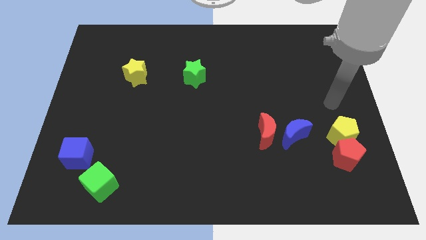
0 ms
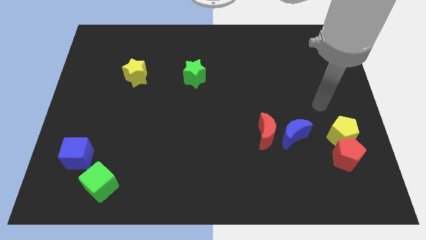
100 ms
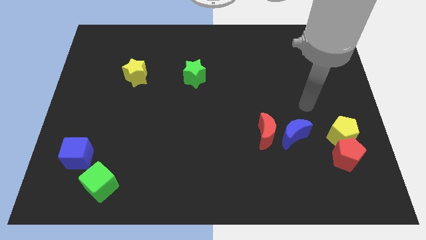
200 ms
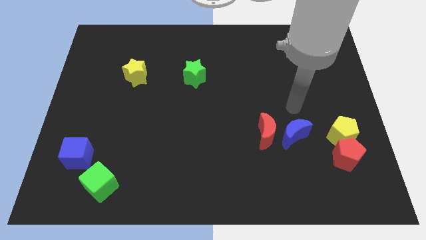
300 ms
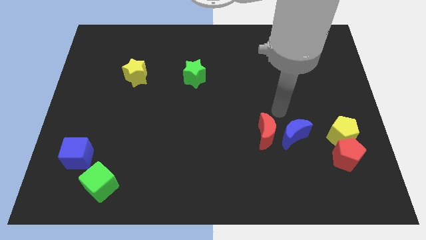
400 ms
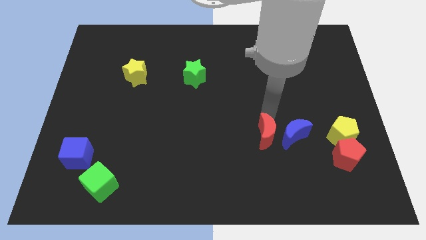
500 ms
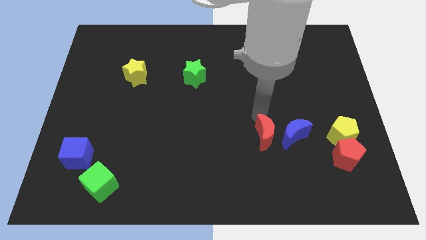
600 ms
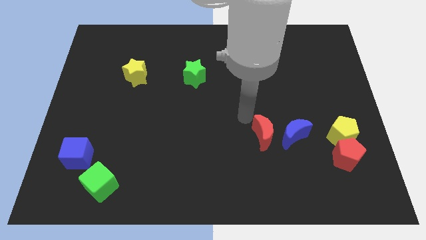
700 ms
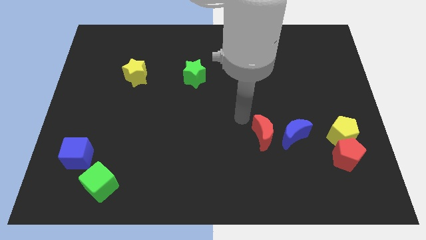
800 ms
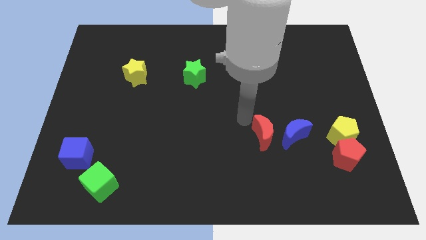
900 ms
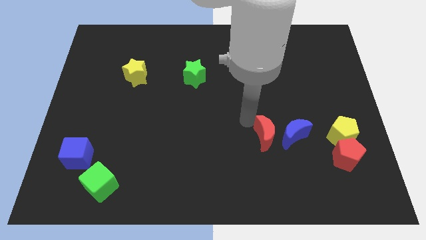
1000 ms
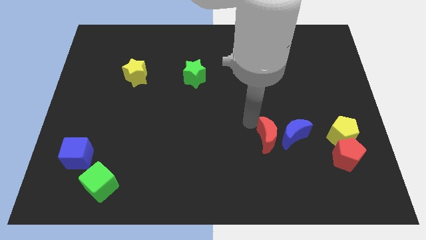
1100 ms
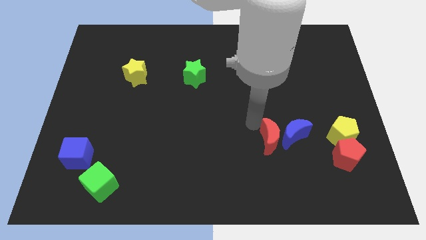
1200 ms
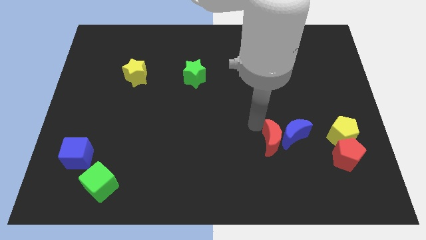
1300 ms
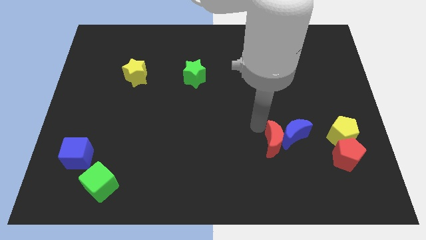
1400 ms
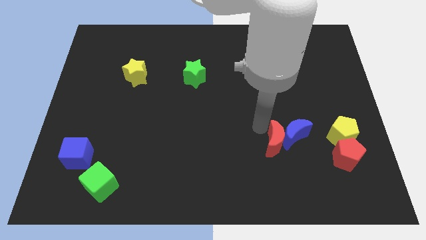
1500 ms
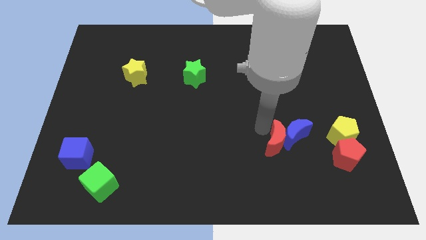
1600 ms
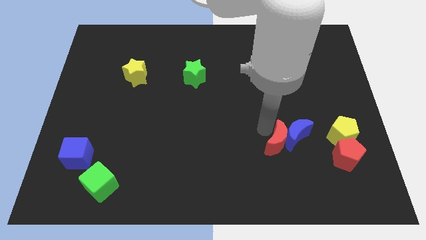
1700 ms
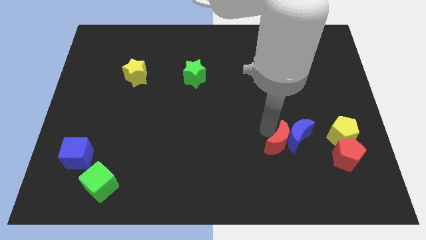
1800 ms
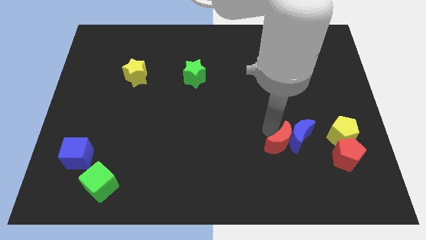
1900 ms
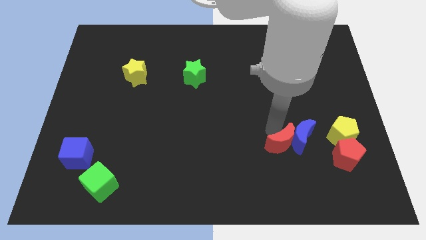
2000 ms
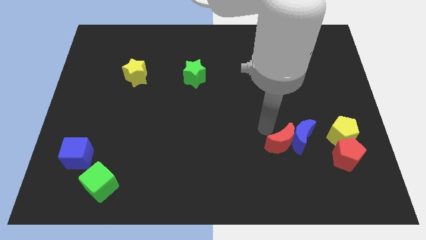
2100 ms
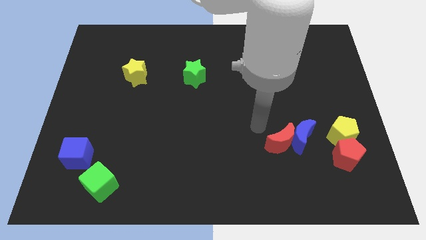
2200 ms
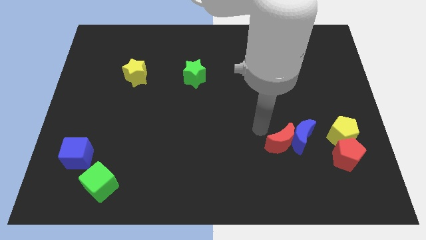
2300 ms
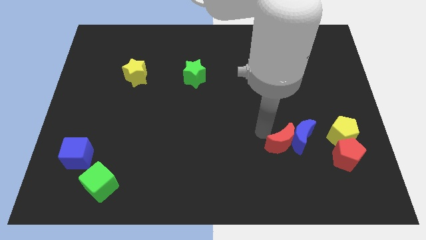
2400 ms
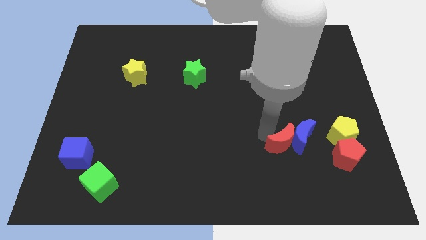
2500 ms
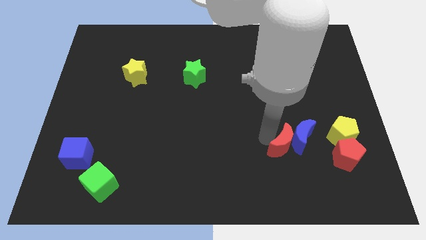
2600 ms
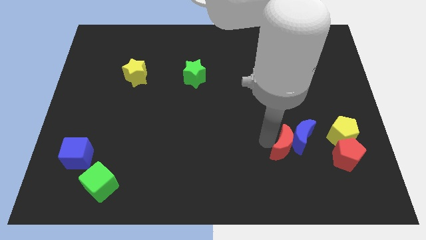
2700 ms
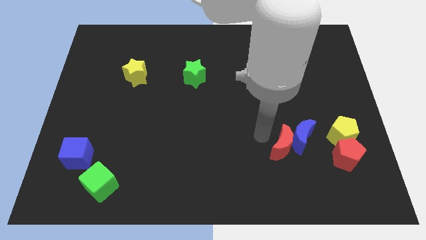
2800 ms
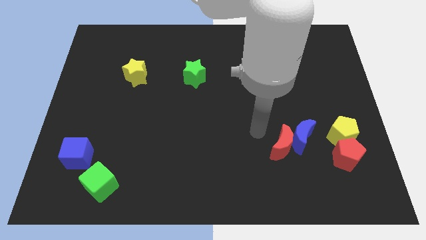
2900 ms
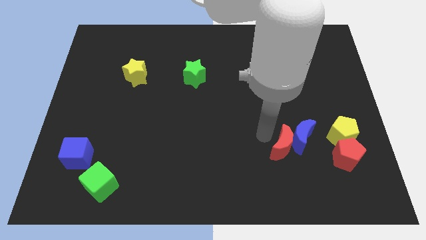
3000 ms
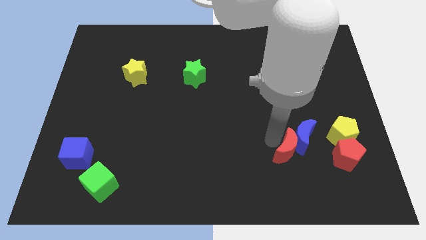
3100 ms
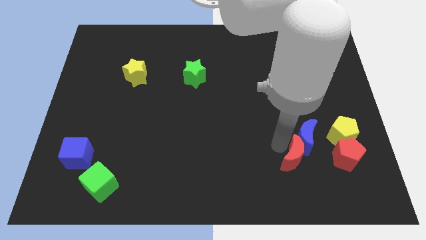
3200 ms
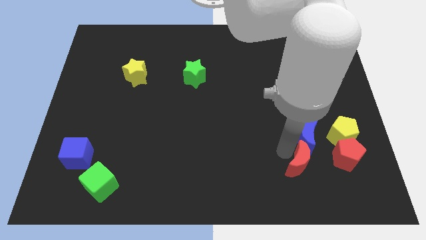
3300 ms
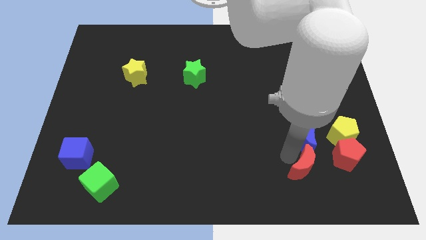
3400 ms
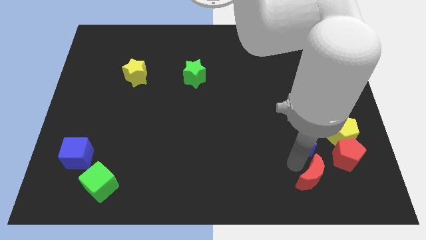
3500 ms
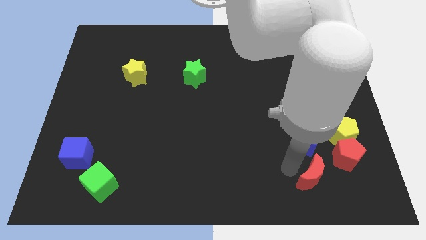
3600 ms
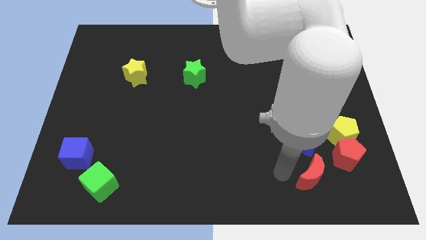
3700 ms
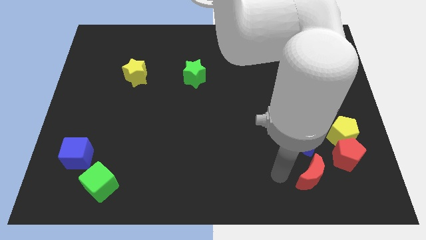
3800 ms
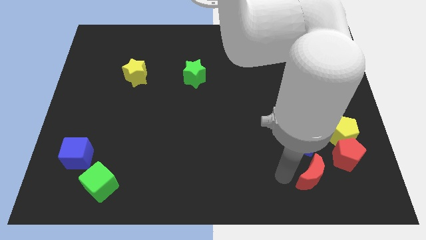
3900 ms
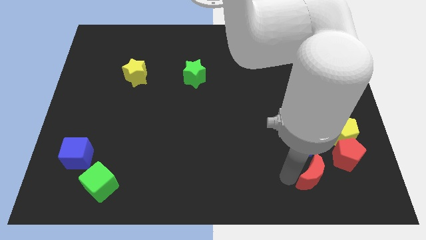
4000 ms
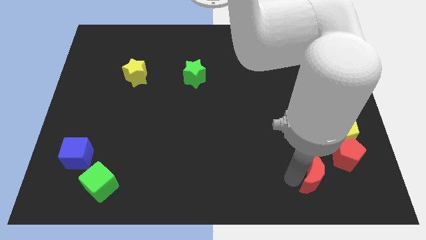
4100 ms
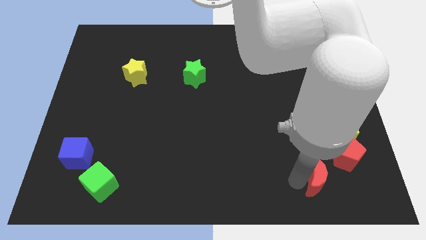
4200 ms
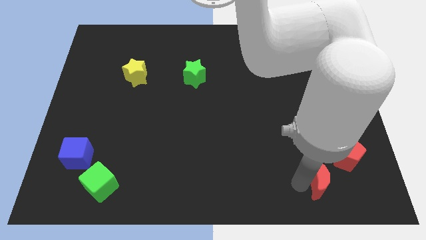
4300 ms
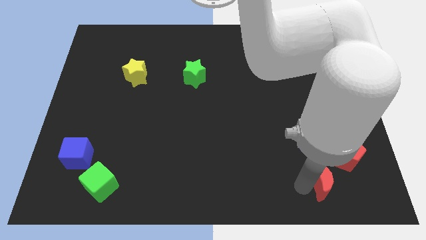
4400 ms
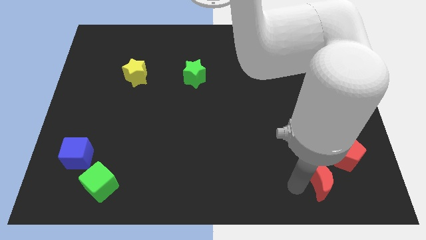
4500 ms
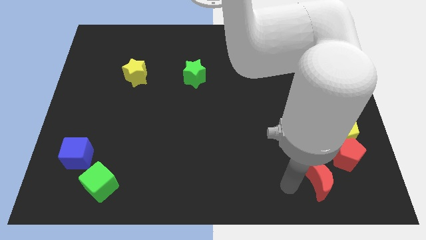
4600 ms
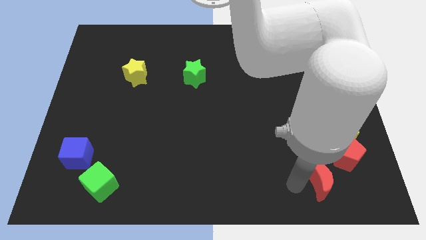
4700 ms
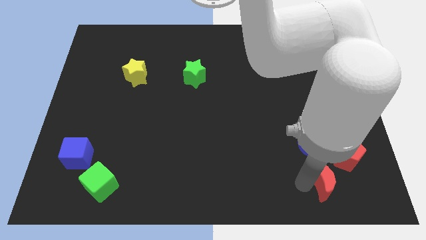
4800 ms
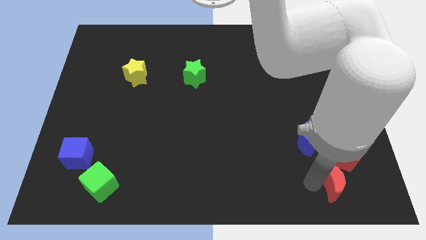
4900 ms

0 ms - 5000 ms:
put the red moon to the bottom side of the yellow pentagon

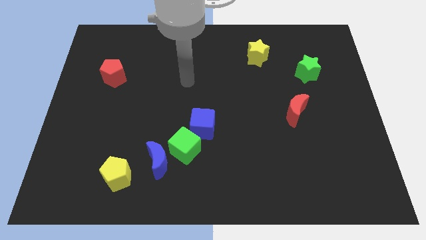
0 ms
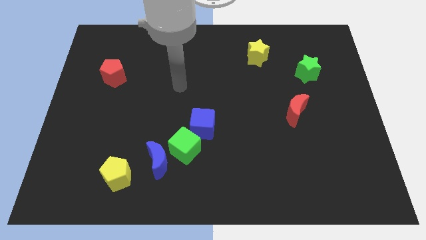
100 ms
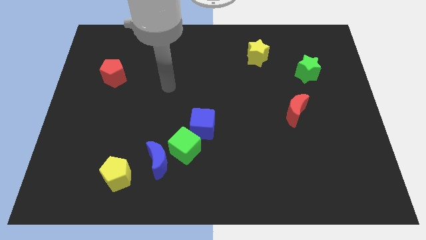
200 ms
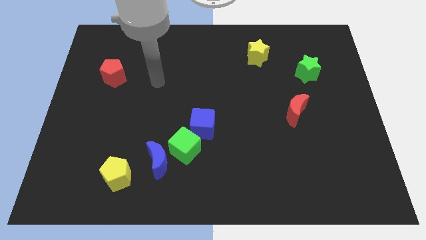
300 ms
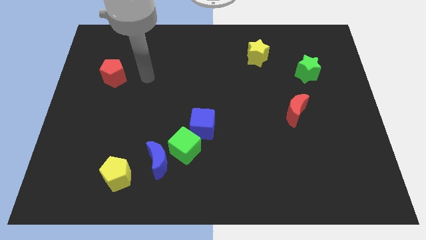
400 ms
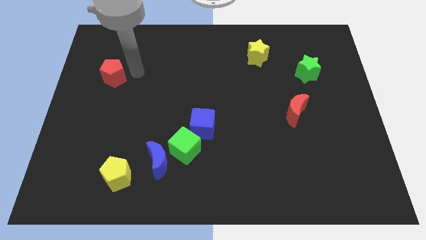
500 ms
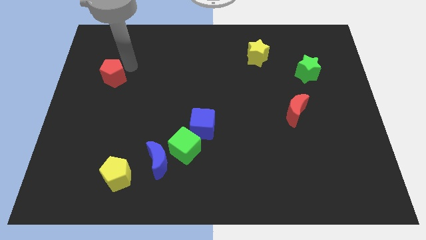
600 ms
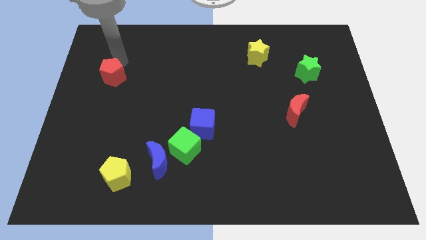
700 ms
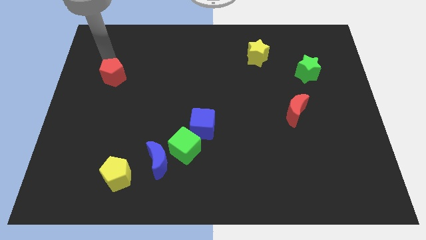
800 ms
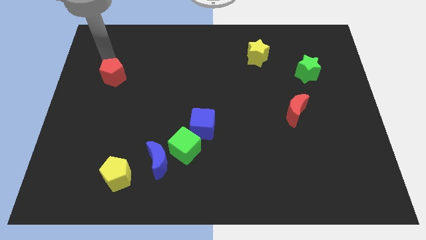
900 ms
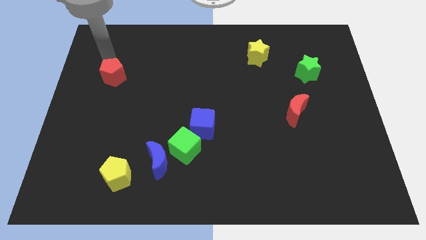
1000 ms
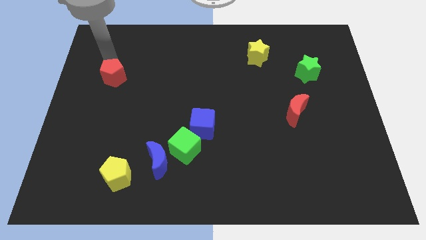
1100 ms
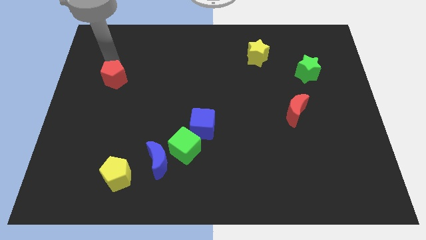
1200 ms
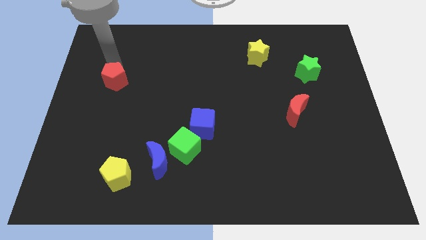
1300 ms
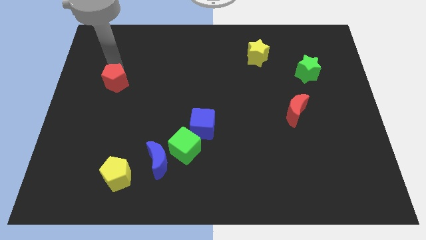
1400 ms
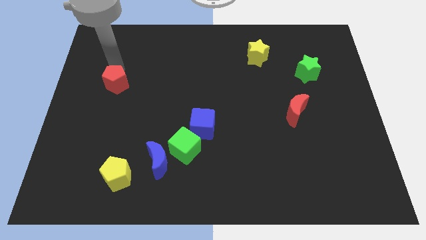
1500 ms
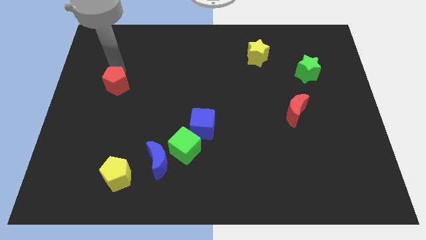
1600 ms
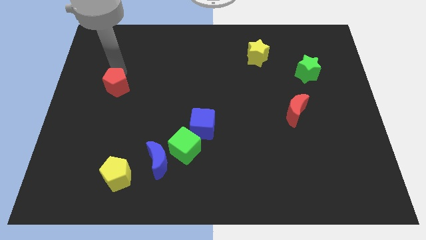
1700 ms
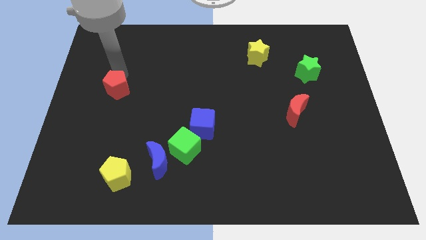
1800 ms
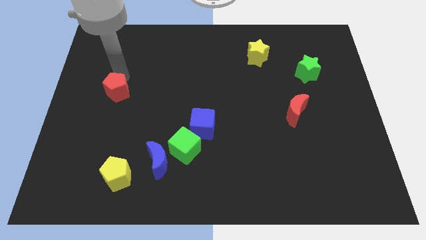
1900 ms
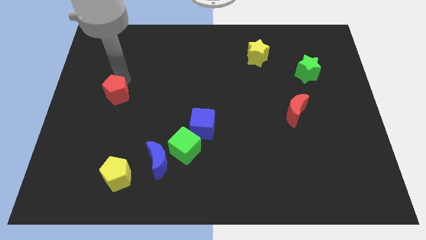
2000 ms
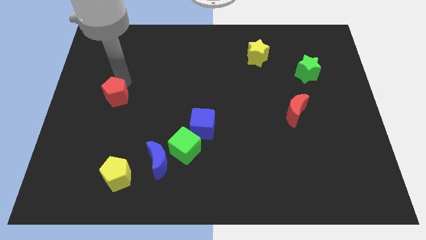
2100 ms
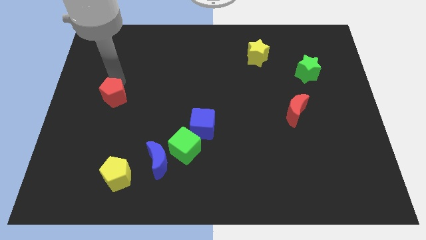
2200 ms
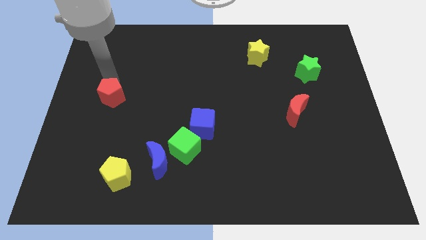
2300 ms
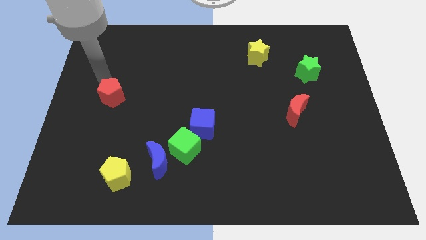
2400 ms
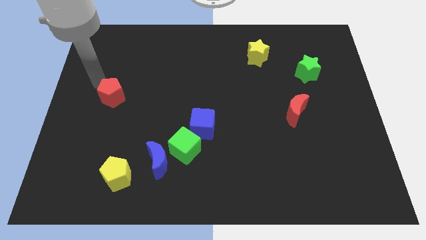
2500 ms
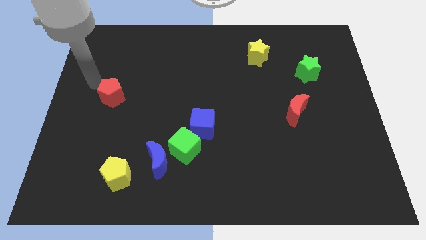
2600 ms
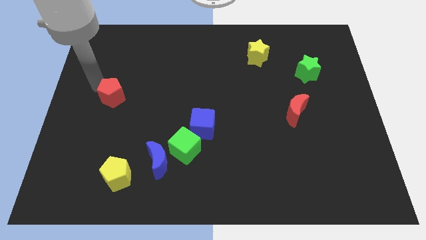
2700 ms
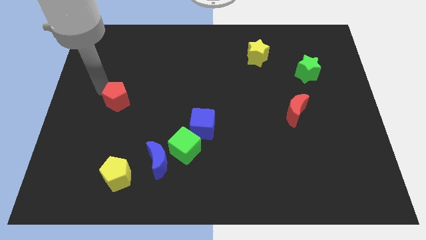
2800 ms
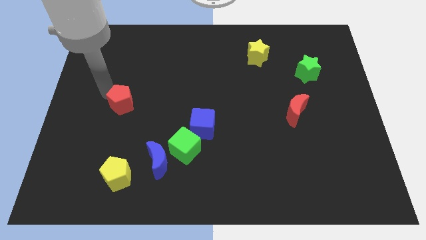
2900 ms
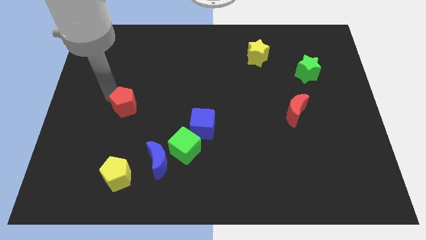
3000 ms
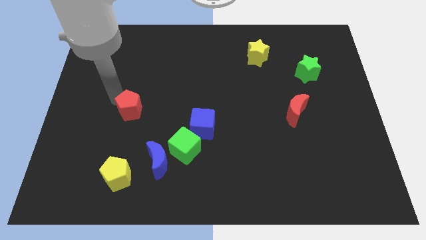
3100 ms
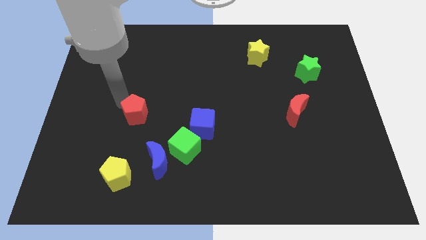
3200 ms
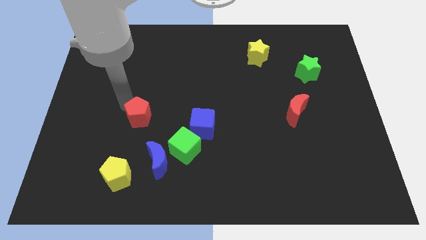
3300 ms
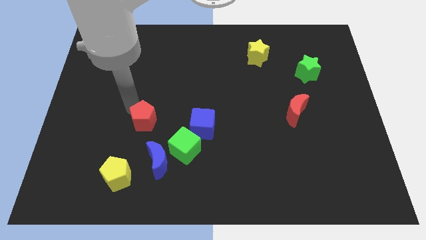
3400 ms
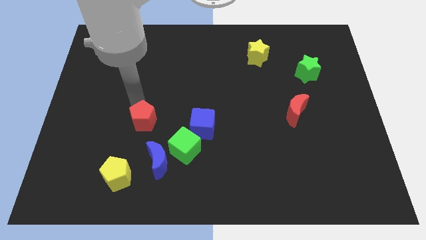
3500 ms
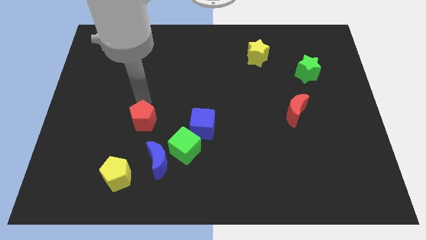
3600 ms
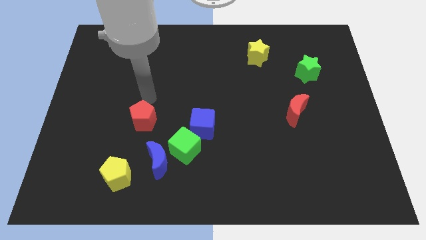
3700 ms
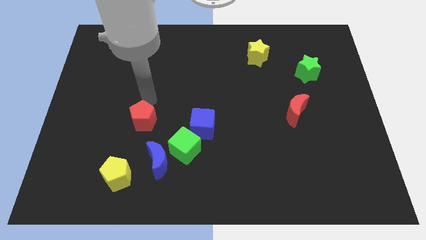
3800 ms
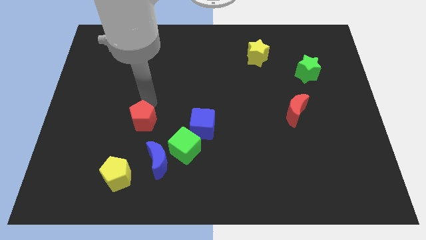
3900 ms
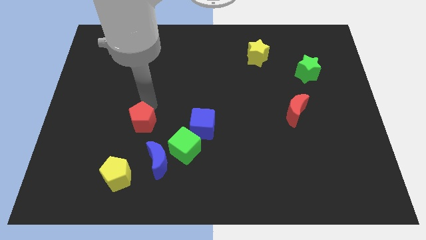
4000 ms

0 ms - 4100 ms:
slide the red pentagon diagonally up and to the left of the blue moon
